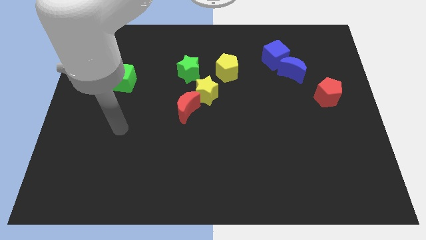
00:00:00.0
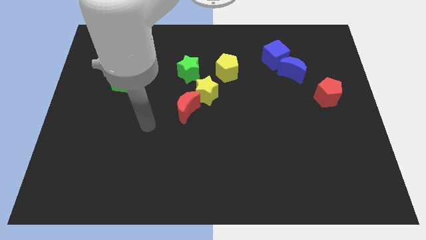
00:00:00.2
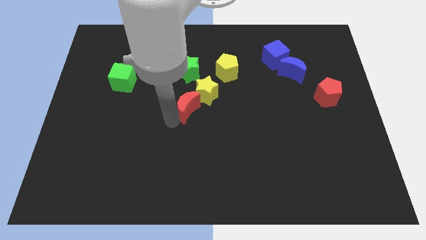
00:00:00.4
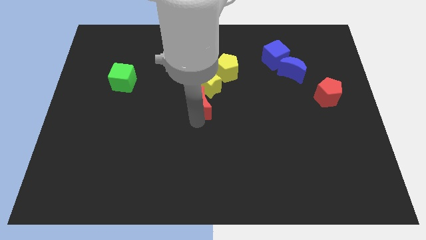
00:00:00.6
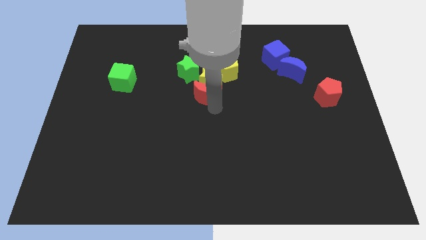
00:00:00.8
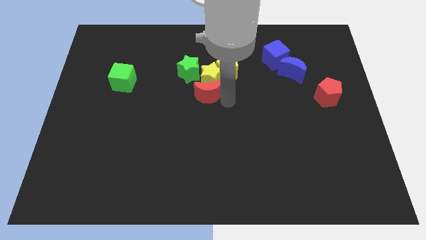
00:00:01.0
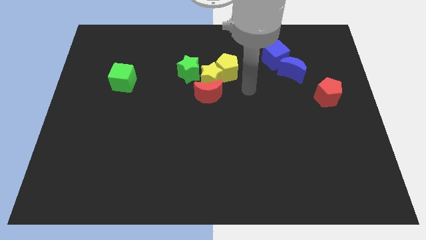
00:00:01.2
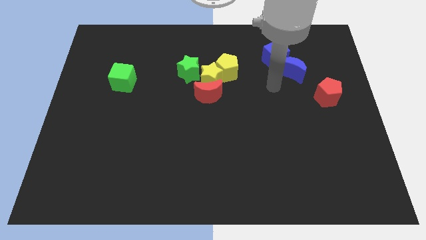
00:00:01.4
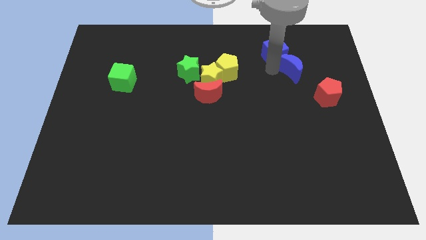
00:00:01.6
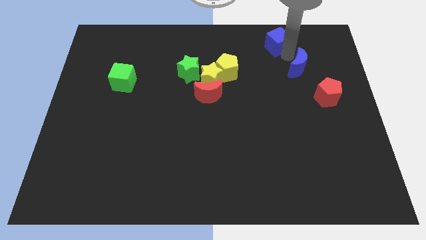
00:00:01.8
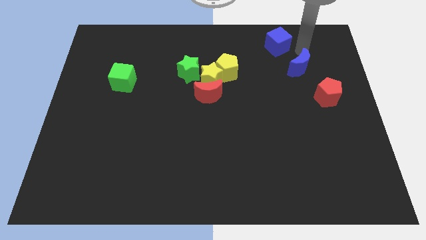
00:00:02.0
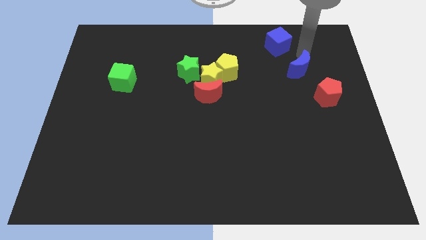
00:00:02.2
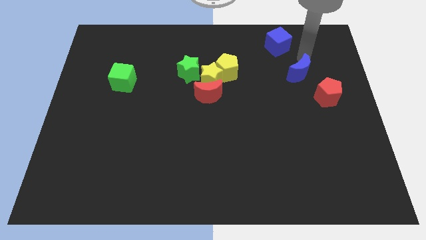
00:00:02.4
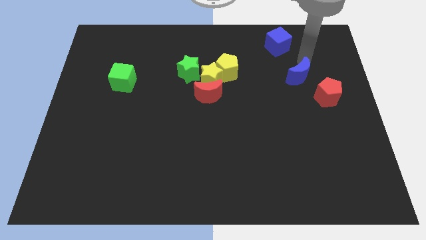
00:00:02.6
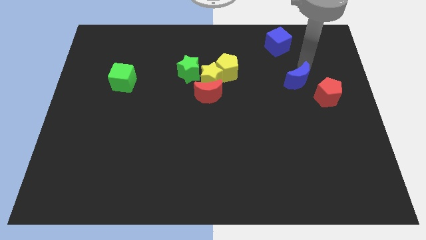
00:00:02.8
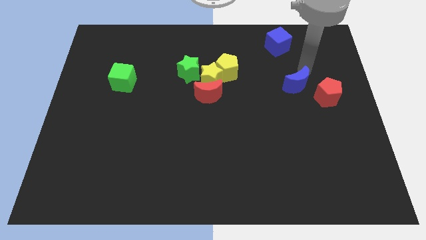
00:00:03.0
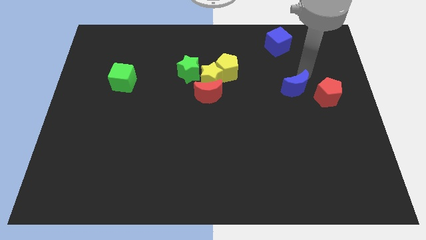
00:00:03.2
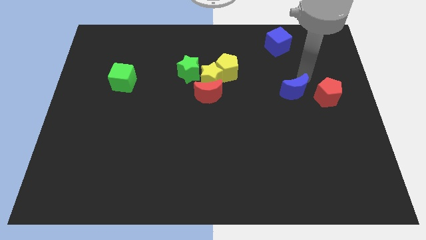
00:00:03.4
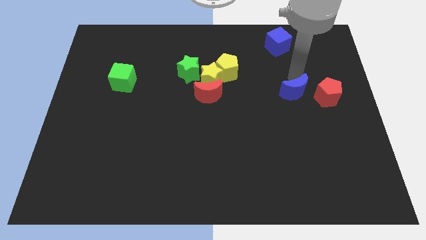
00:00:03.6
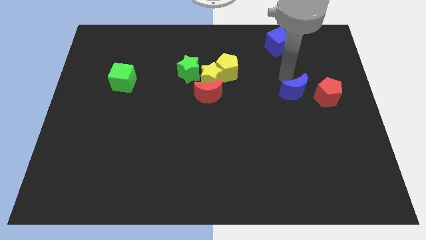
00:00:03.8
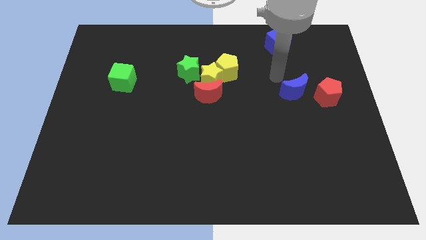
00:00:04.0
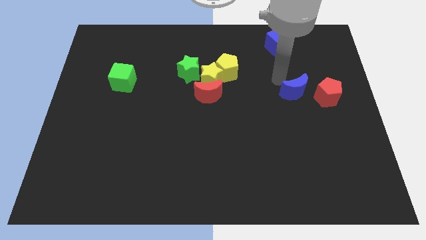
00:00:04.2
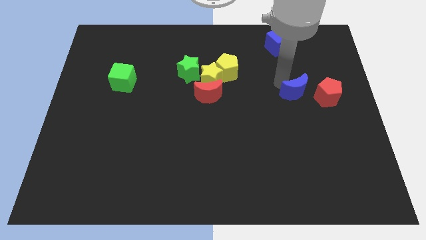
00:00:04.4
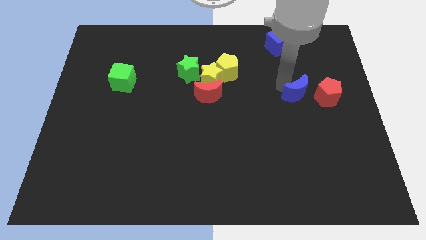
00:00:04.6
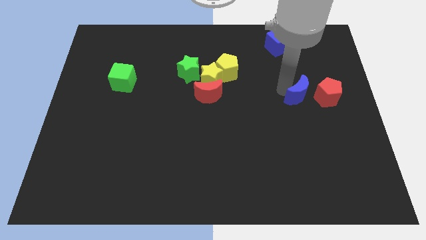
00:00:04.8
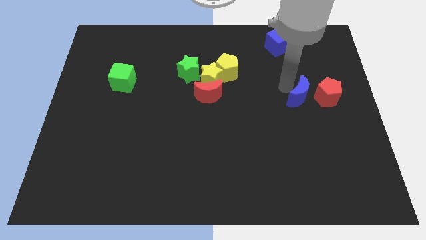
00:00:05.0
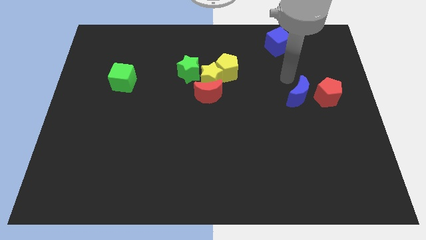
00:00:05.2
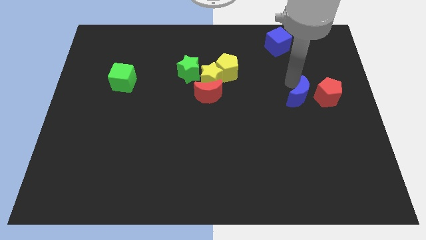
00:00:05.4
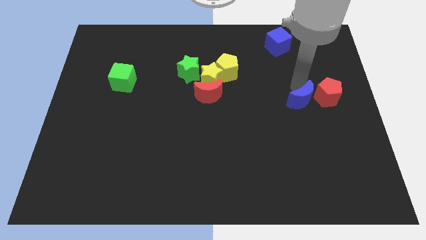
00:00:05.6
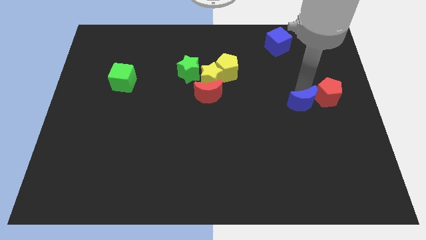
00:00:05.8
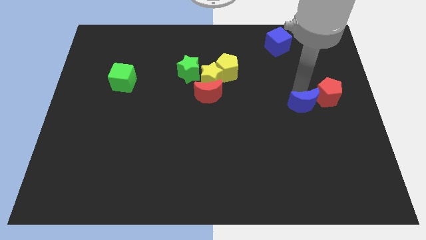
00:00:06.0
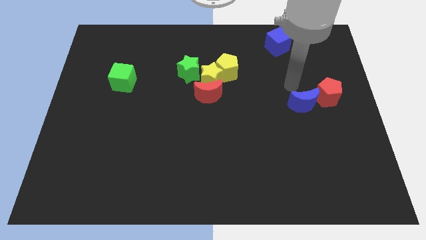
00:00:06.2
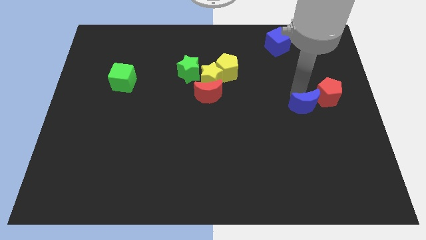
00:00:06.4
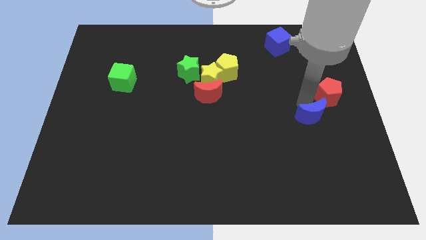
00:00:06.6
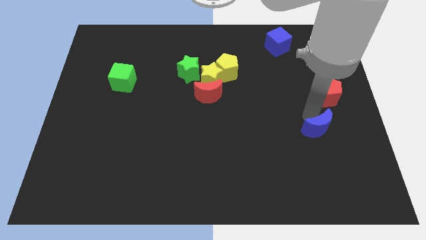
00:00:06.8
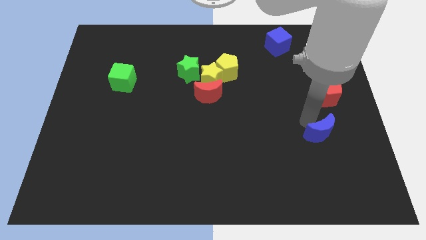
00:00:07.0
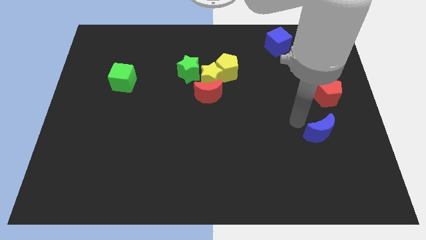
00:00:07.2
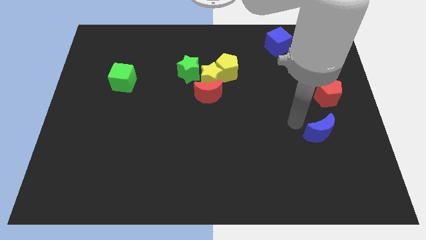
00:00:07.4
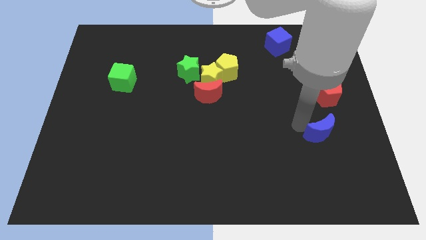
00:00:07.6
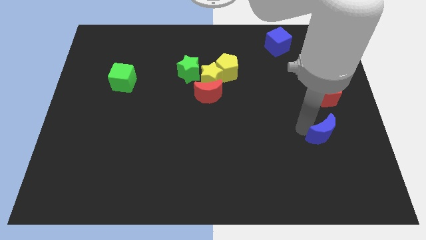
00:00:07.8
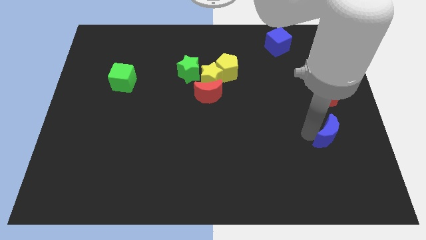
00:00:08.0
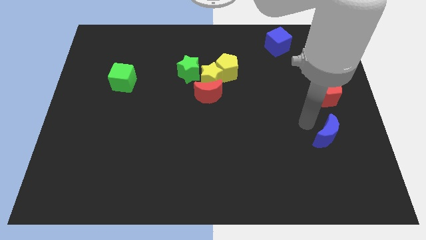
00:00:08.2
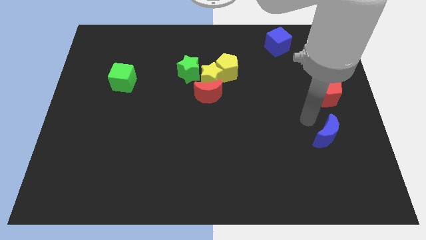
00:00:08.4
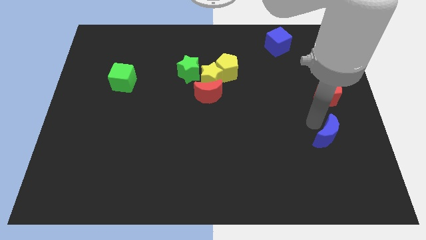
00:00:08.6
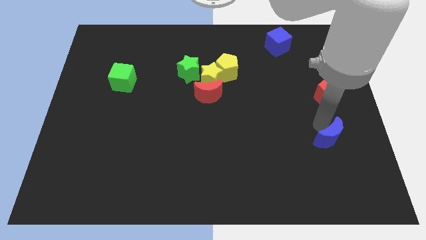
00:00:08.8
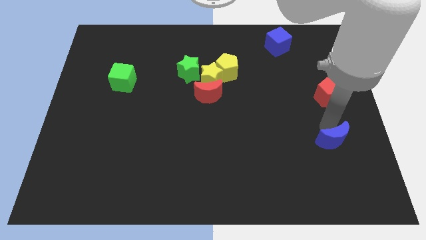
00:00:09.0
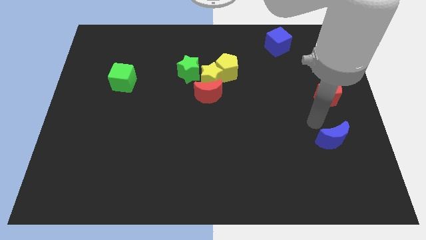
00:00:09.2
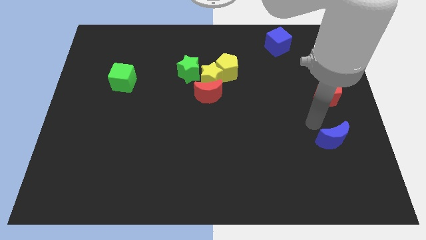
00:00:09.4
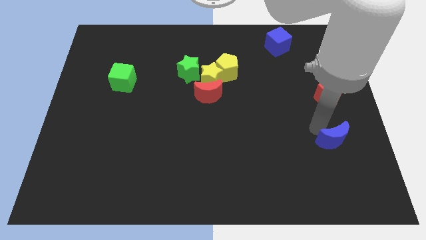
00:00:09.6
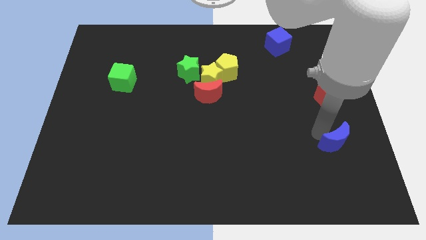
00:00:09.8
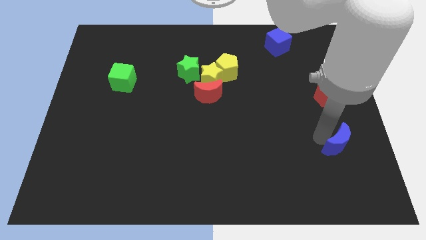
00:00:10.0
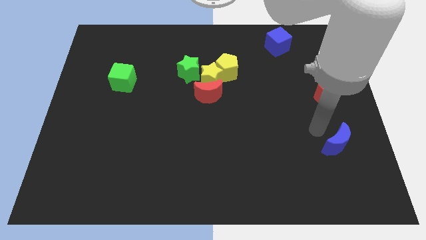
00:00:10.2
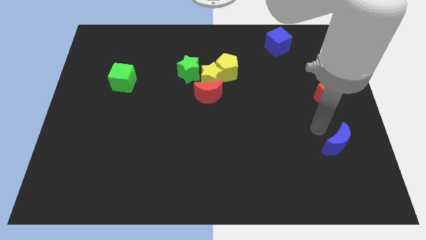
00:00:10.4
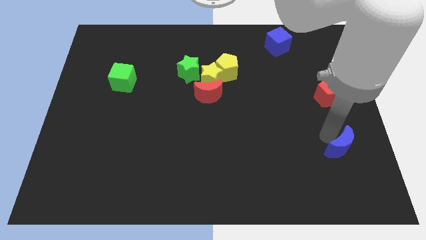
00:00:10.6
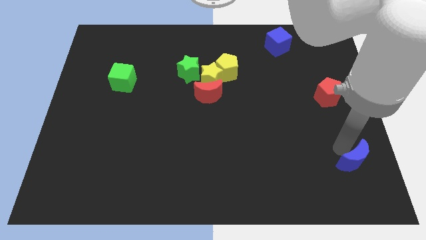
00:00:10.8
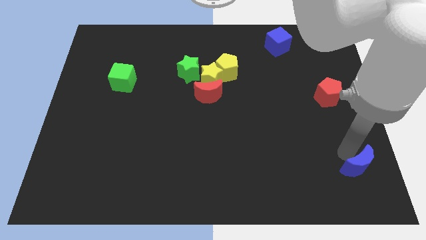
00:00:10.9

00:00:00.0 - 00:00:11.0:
slide the blue moon to the bottom right

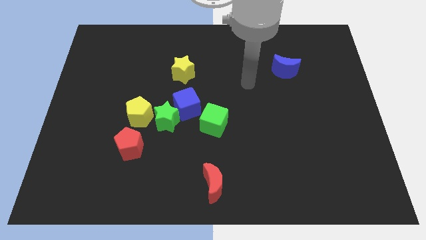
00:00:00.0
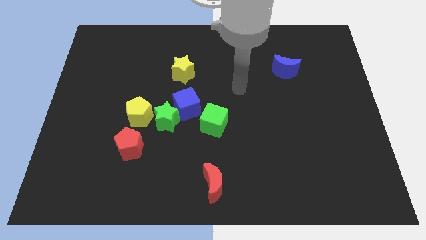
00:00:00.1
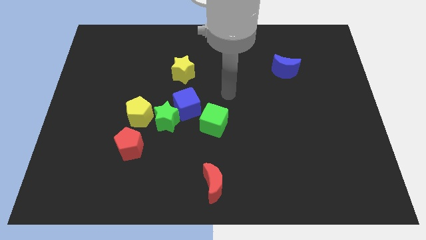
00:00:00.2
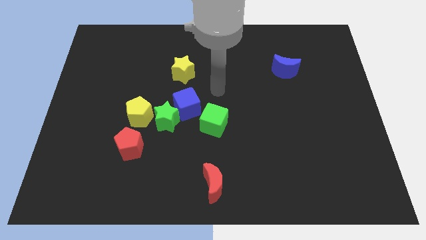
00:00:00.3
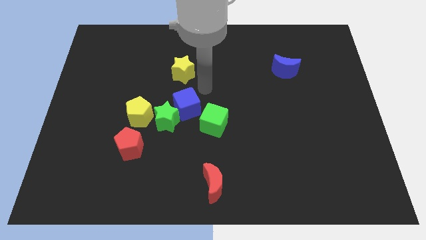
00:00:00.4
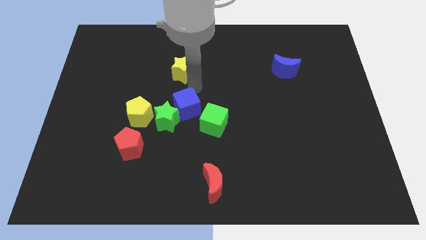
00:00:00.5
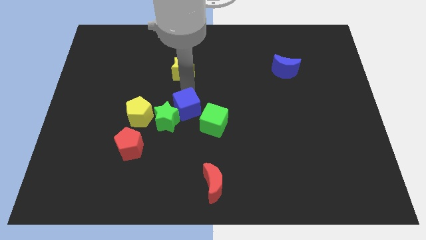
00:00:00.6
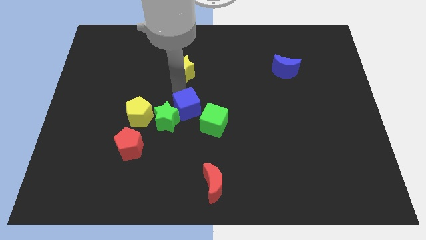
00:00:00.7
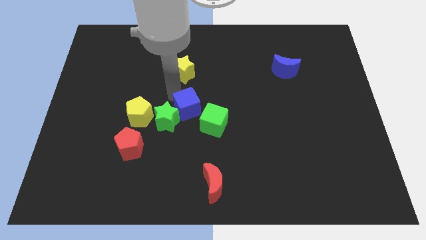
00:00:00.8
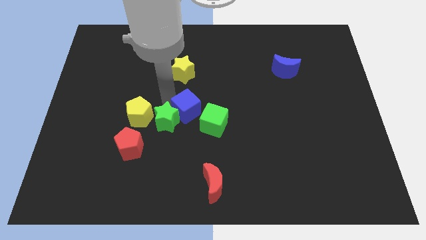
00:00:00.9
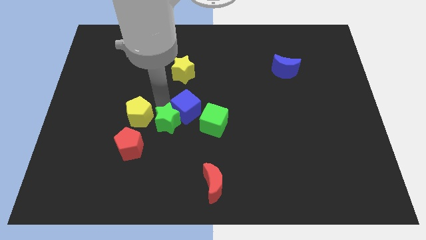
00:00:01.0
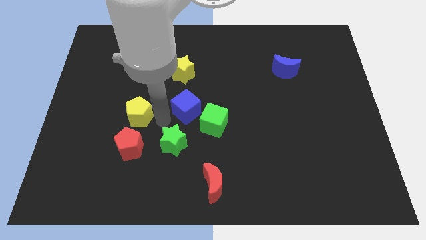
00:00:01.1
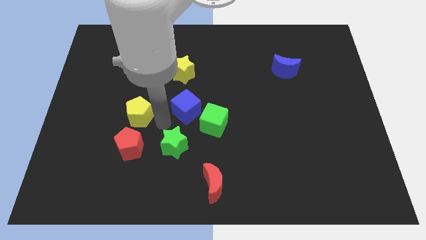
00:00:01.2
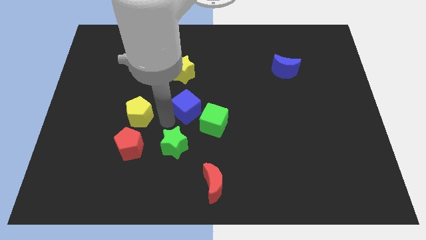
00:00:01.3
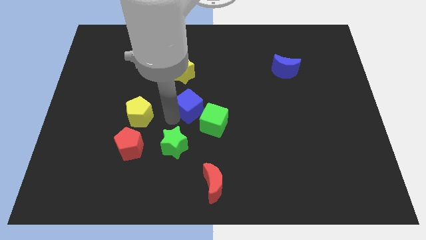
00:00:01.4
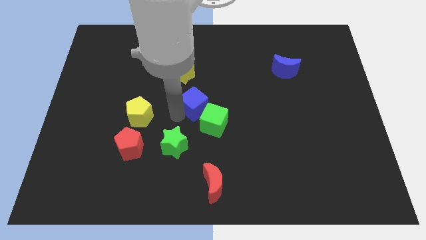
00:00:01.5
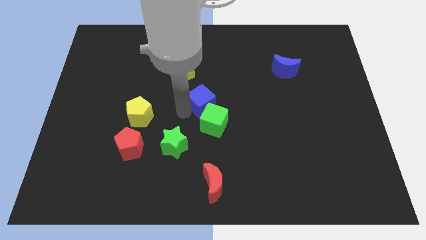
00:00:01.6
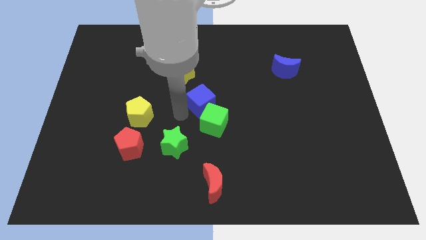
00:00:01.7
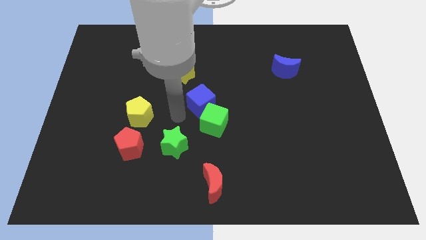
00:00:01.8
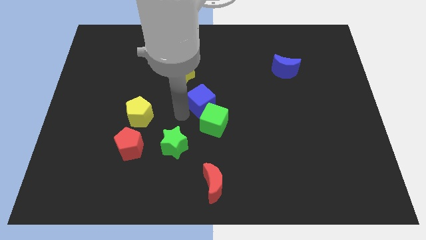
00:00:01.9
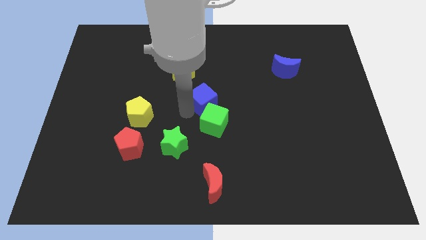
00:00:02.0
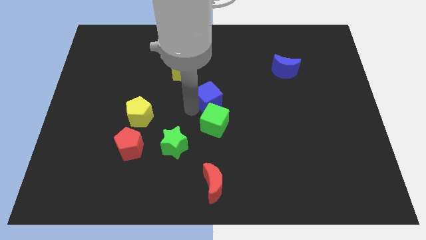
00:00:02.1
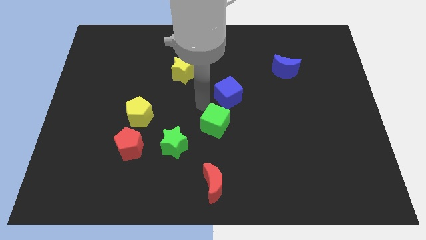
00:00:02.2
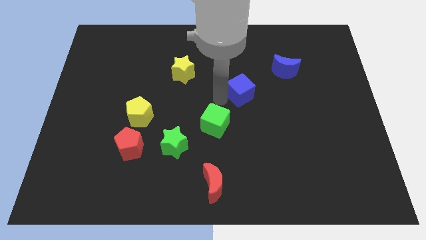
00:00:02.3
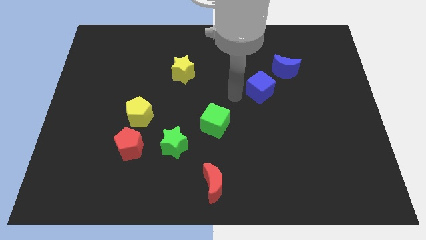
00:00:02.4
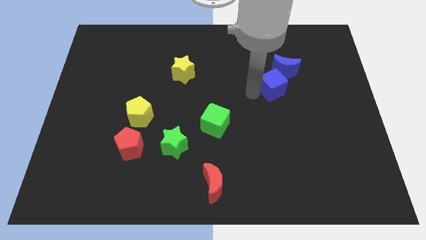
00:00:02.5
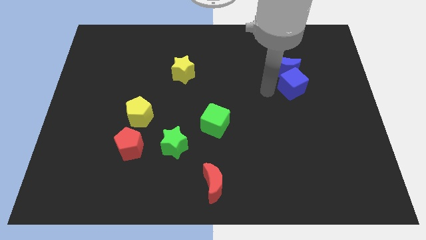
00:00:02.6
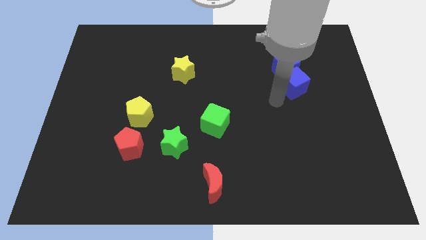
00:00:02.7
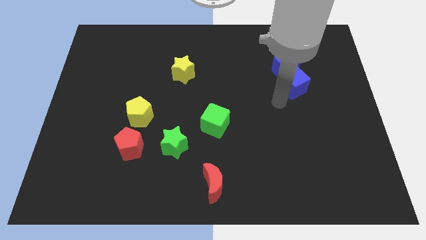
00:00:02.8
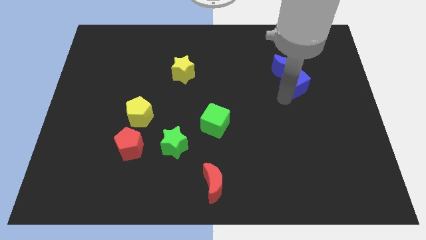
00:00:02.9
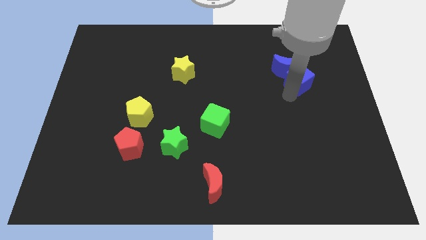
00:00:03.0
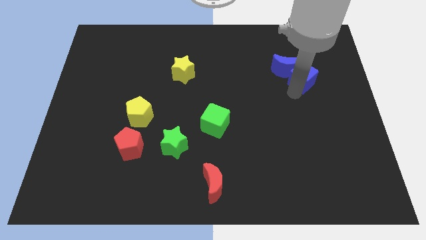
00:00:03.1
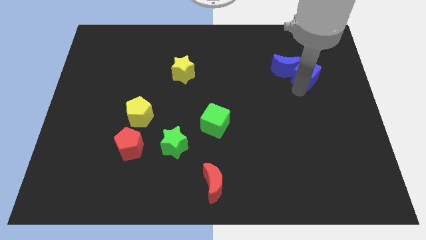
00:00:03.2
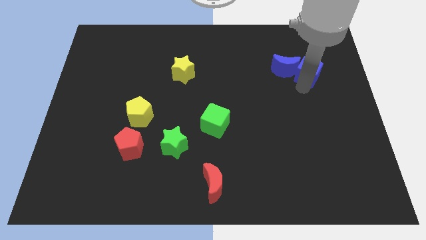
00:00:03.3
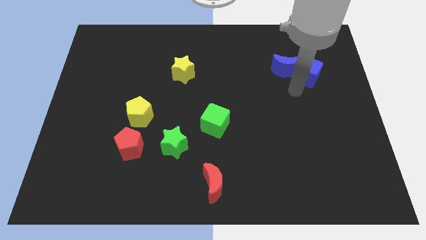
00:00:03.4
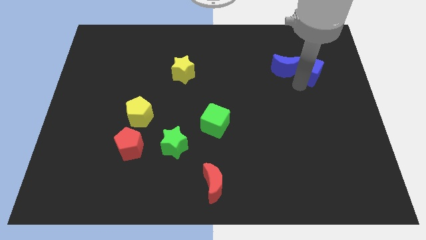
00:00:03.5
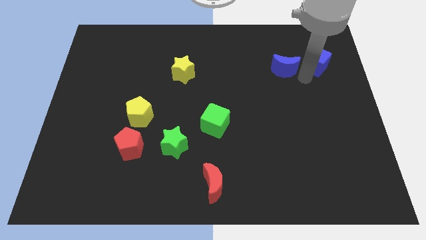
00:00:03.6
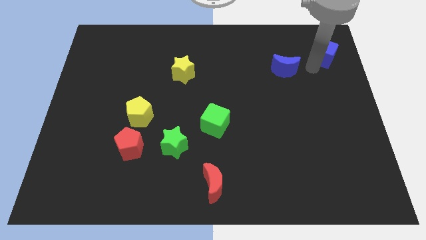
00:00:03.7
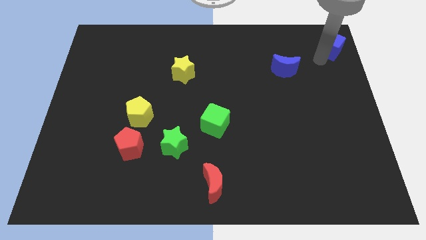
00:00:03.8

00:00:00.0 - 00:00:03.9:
move the blue cube to the top right of the board
